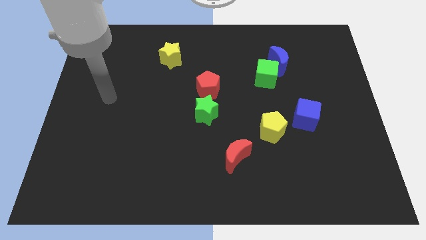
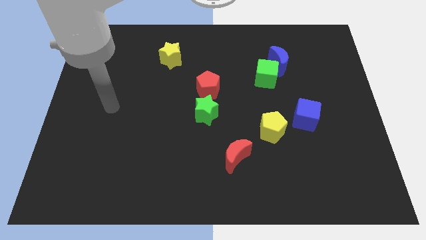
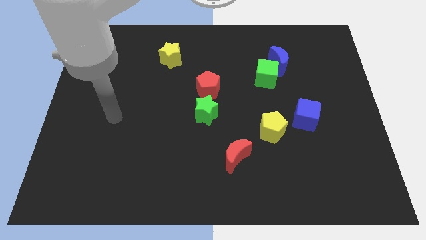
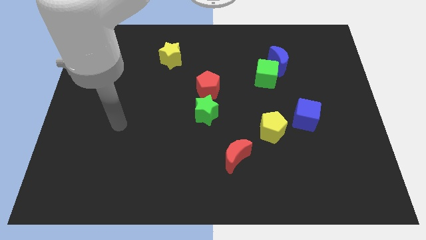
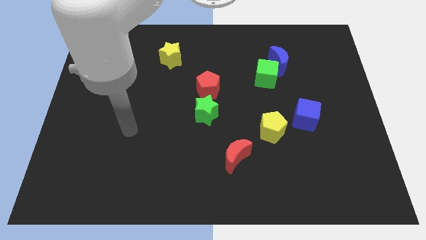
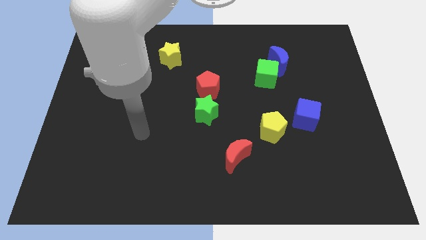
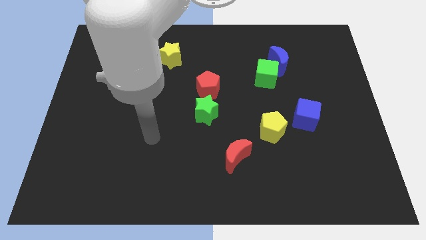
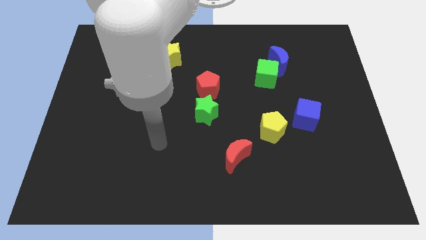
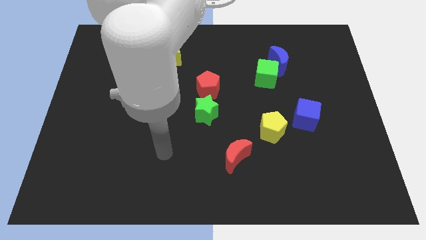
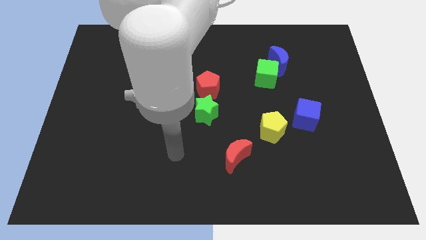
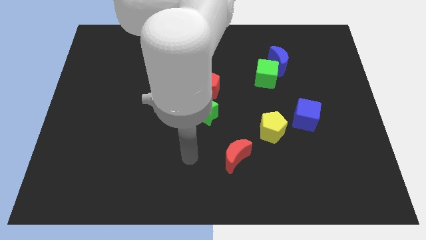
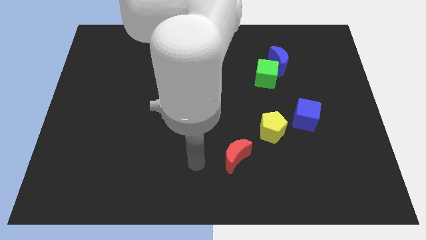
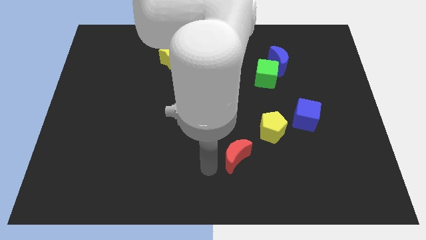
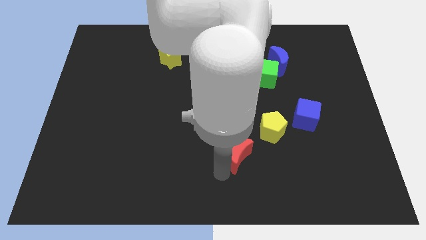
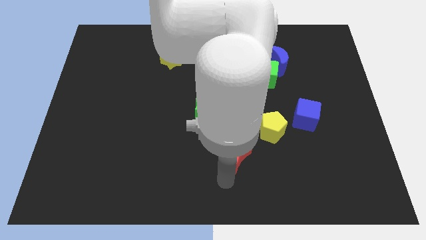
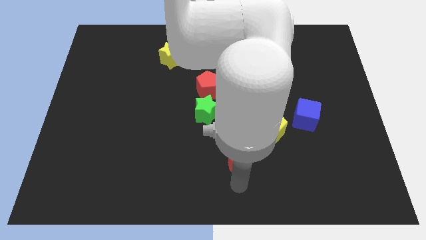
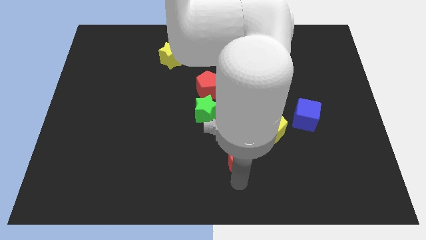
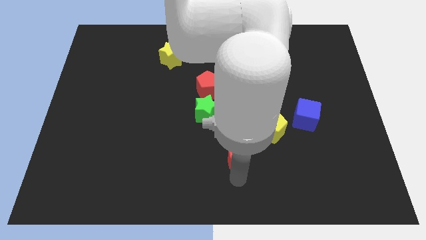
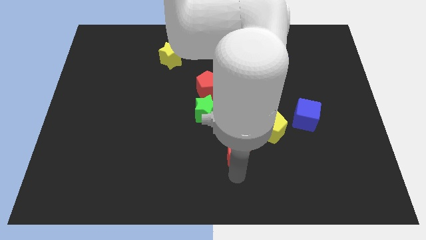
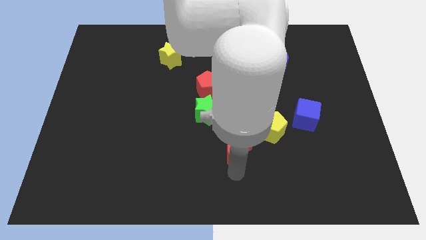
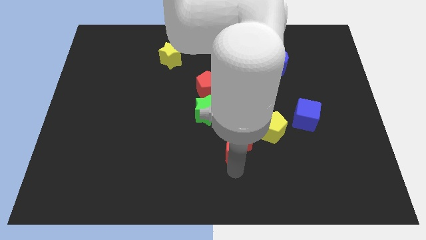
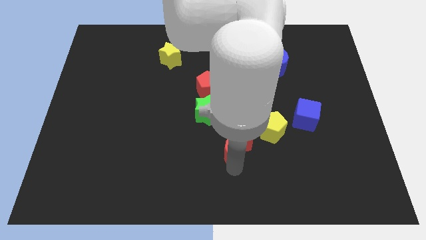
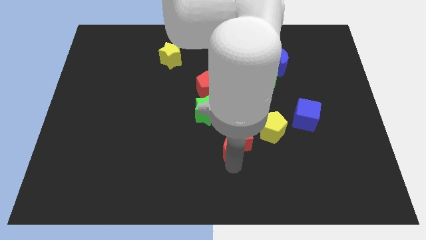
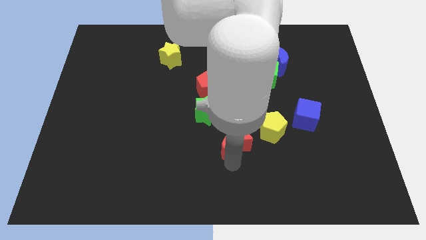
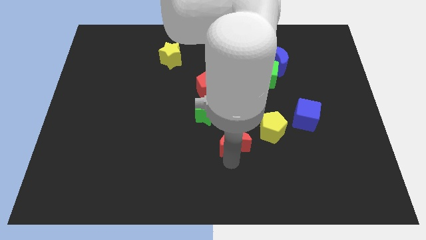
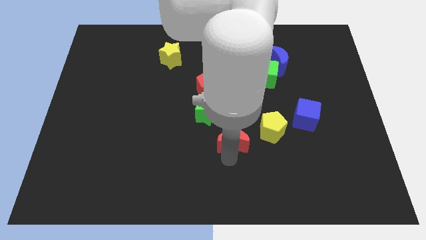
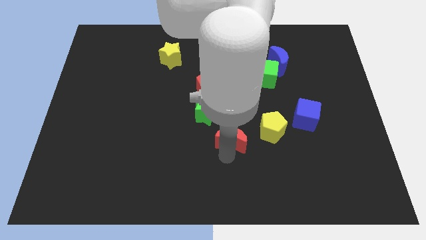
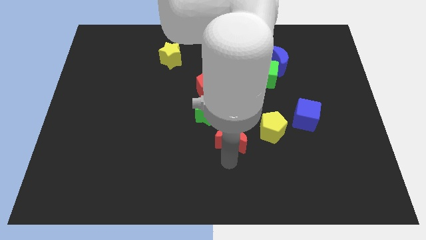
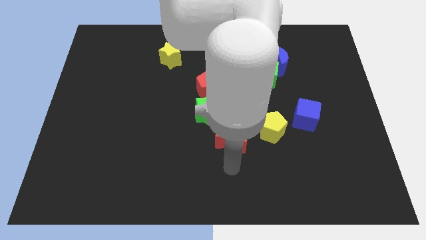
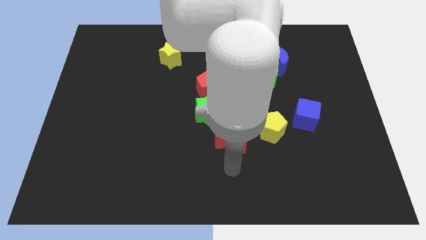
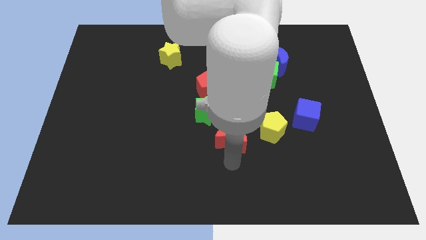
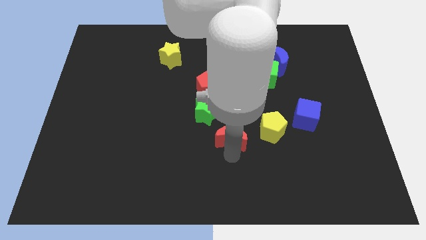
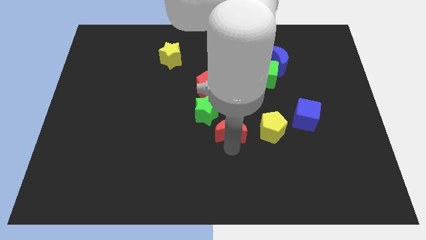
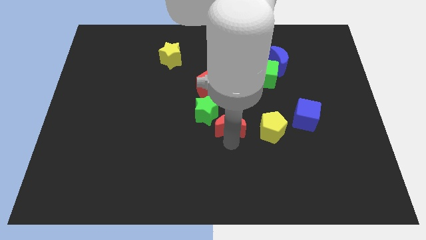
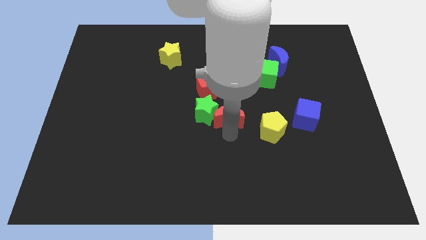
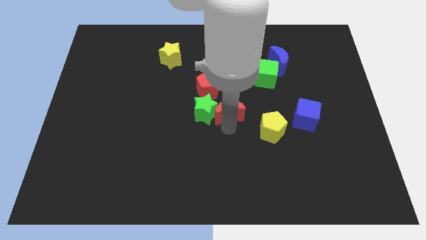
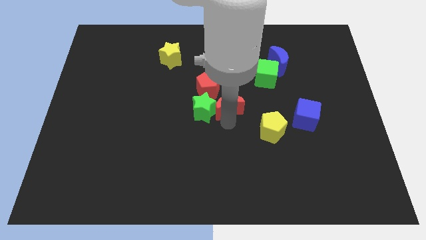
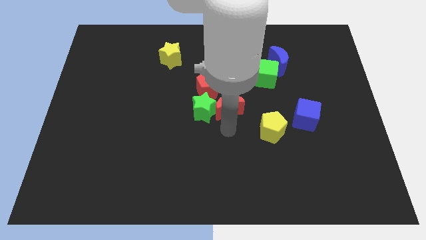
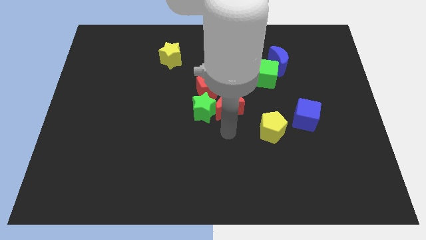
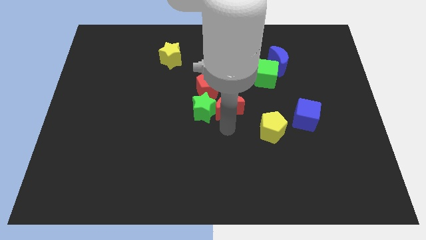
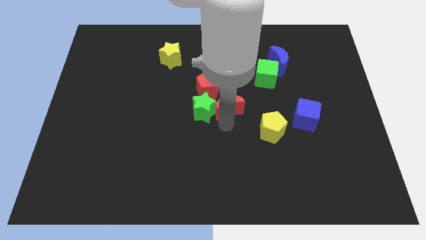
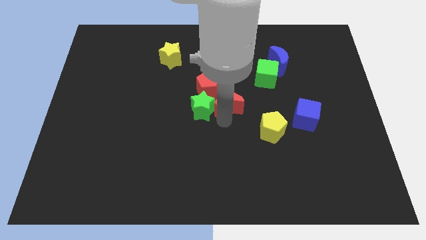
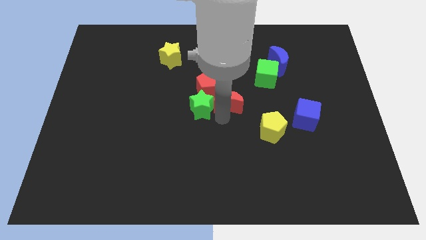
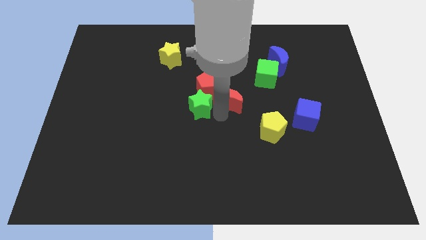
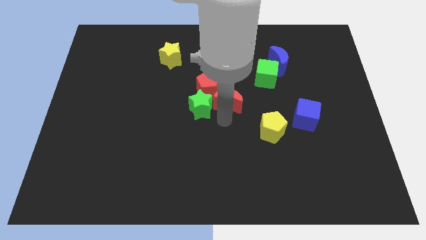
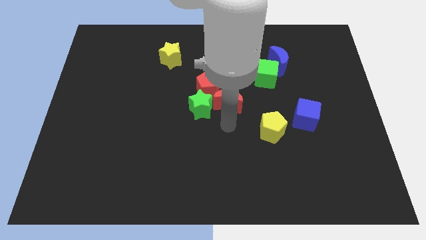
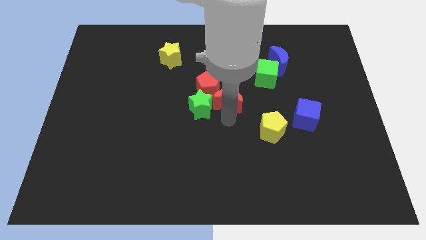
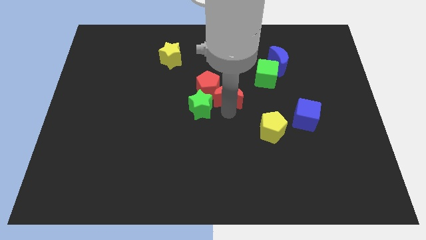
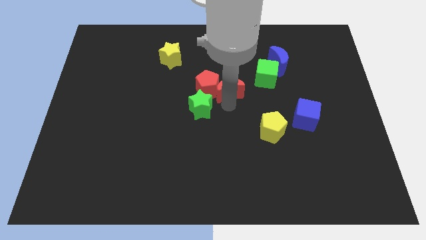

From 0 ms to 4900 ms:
put the red moon to the top right of the red pentagon

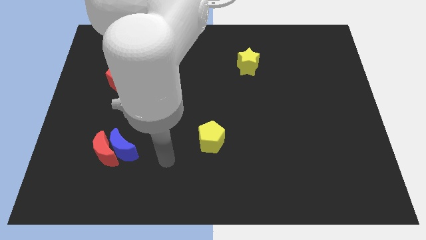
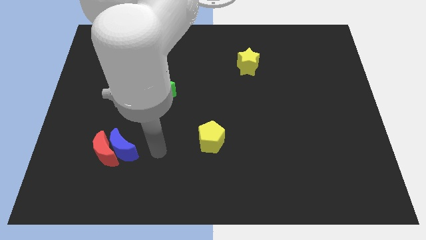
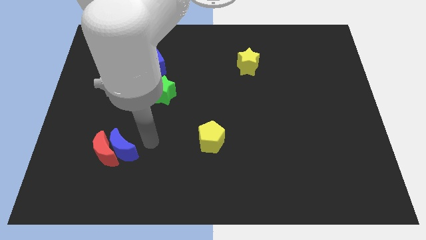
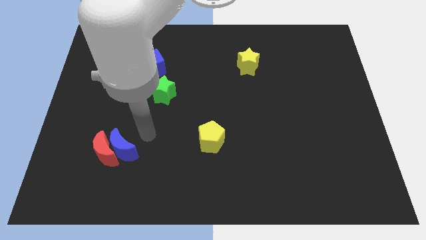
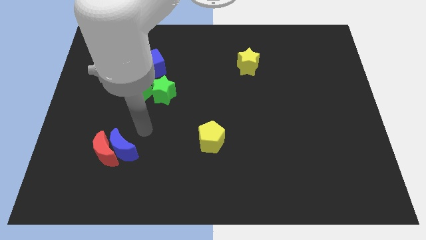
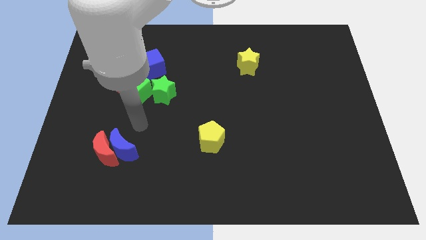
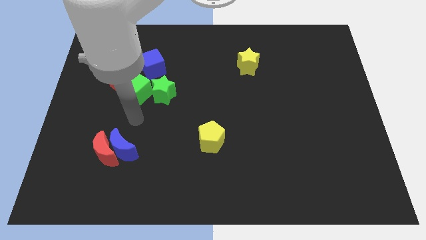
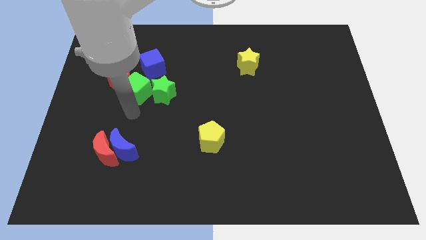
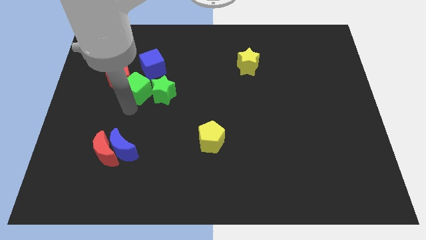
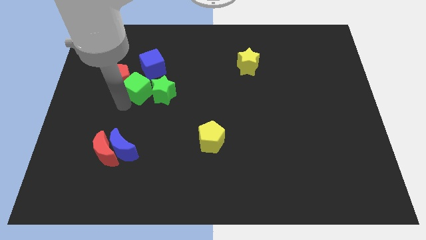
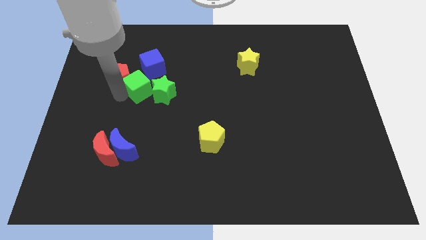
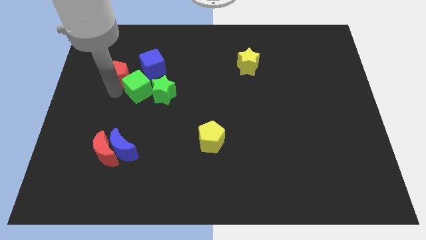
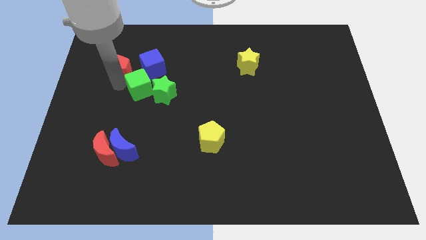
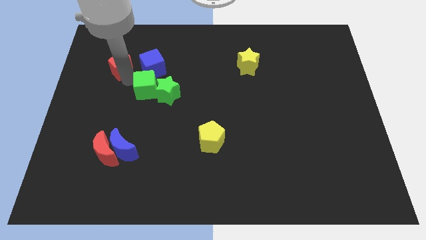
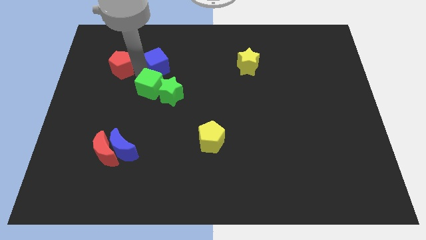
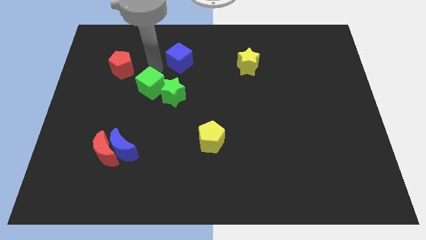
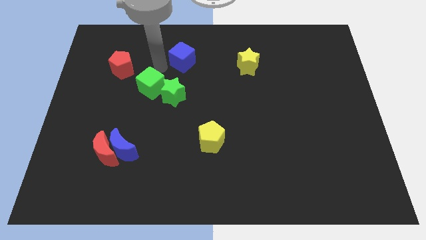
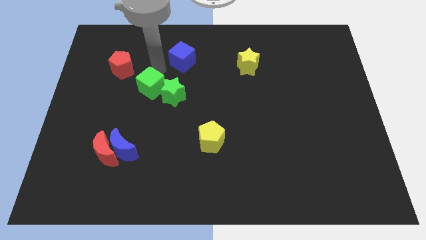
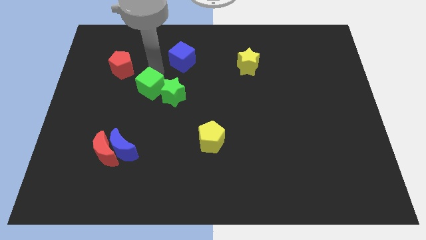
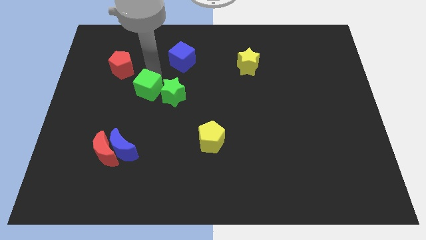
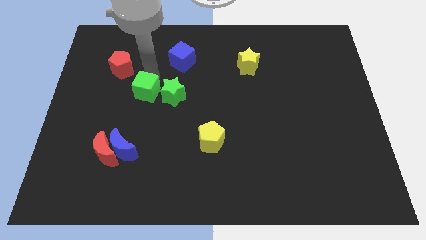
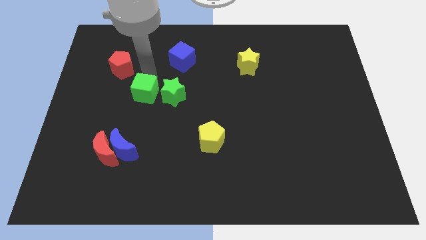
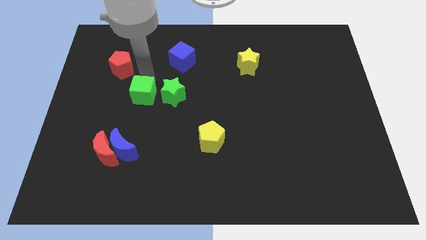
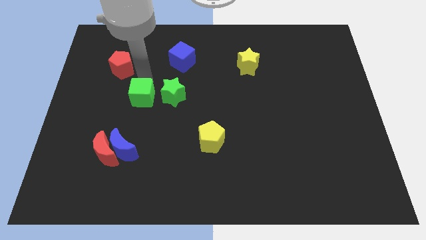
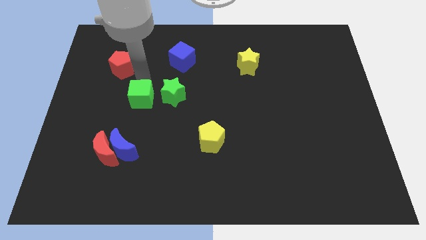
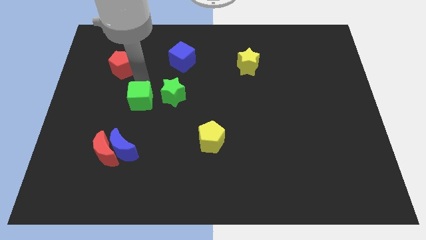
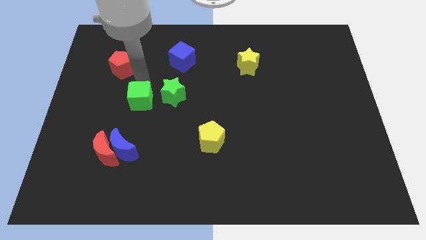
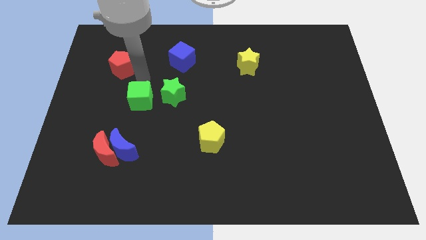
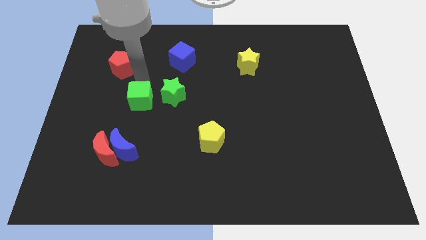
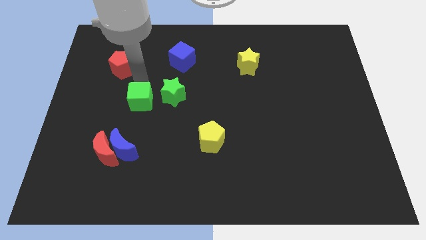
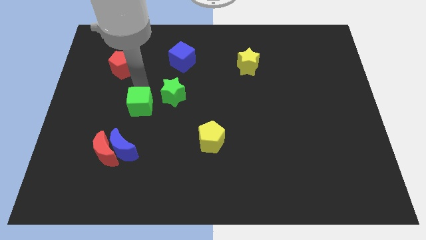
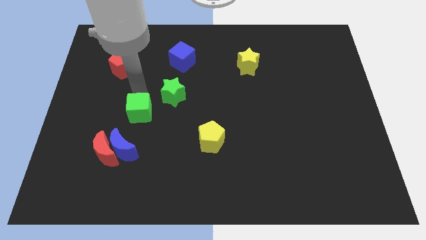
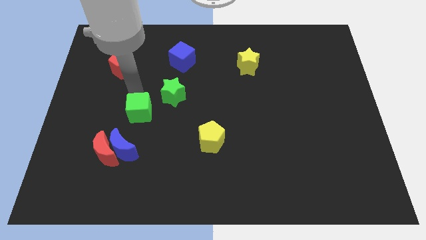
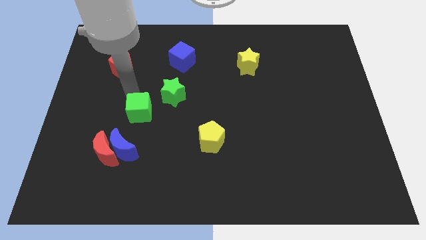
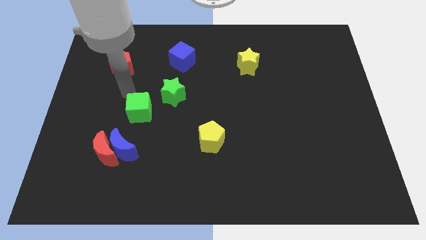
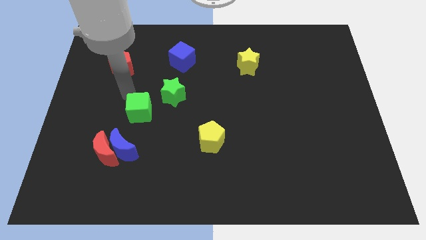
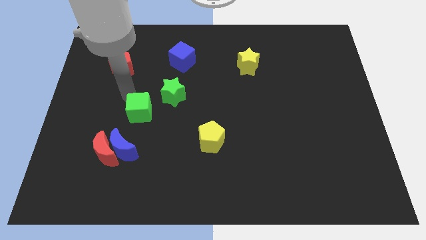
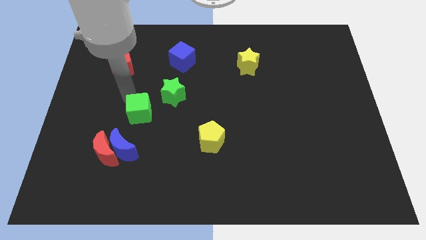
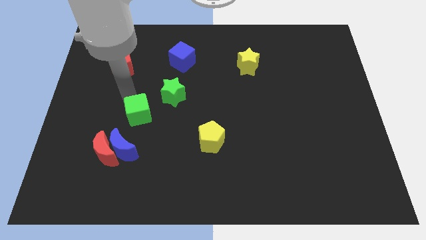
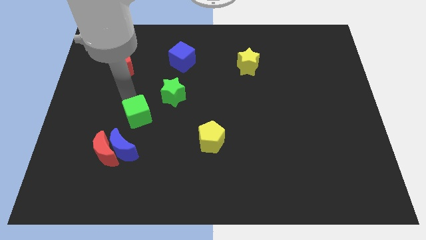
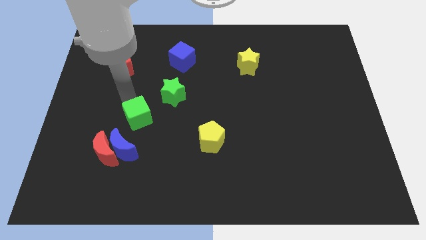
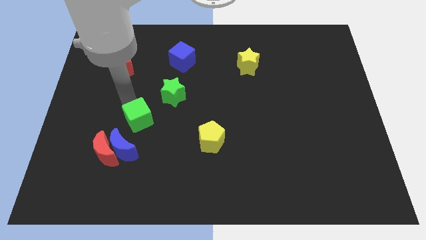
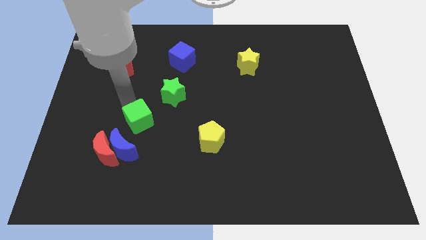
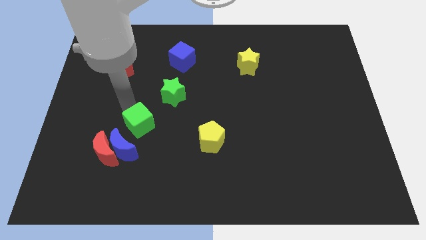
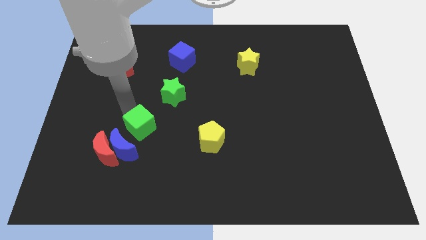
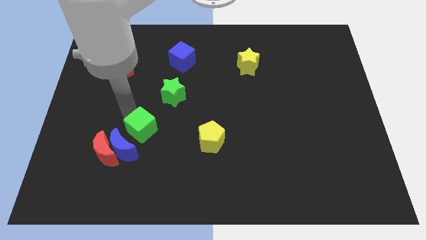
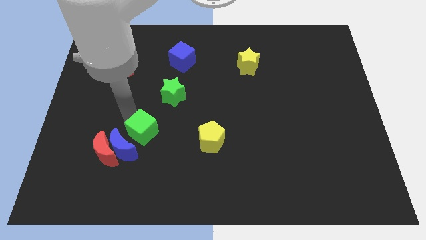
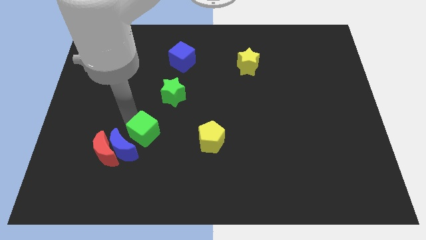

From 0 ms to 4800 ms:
move the green cube to the right side of the blue moon
